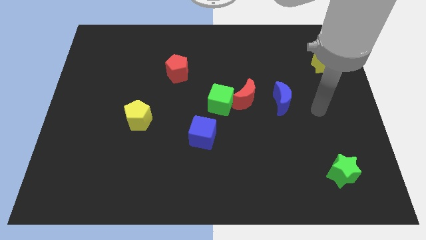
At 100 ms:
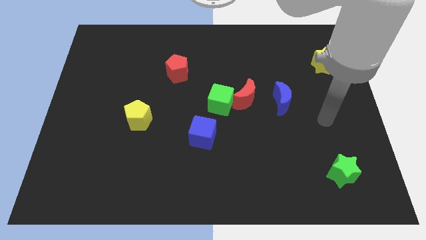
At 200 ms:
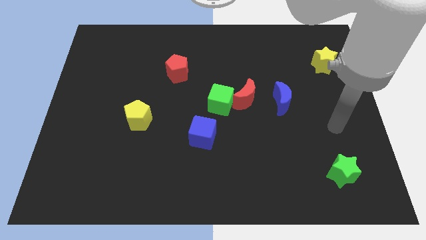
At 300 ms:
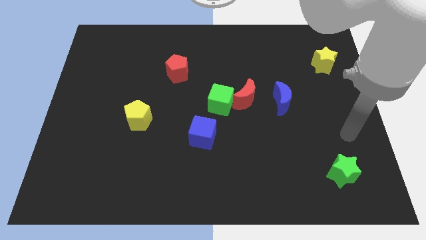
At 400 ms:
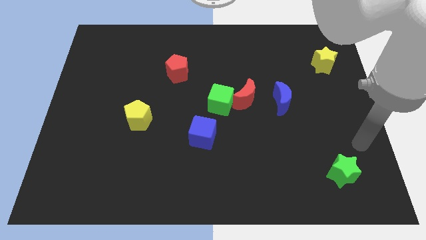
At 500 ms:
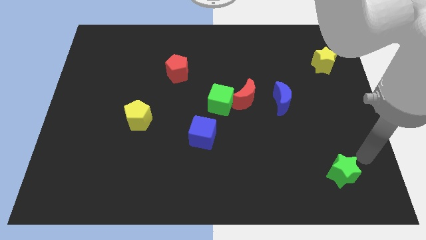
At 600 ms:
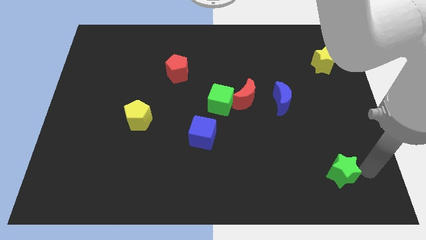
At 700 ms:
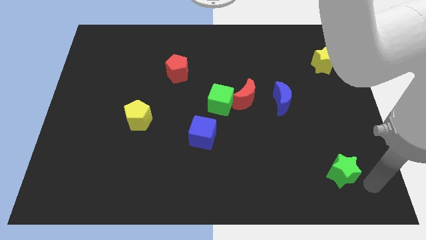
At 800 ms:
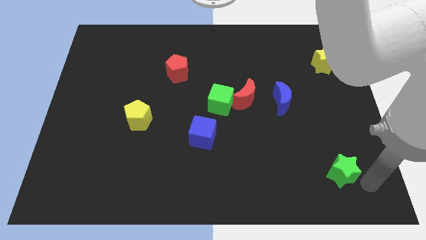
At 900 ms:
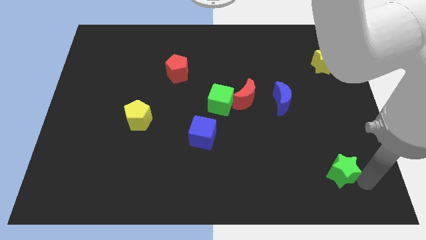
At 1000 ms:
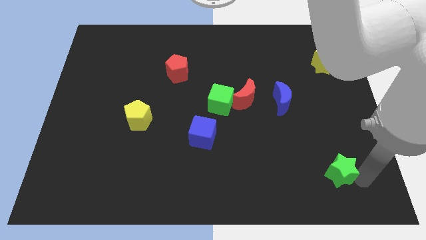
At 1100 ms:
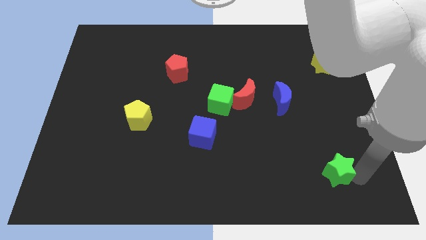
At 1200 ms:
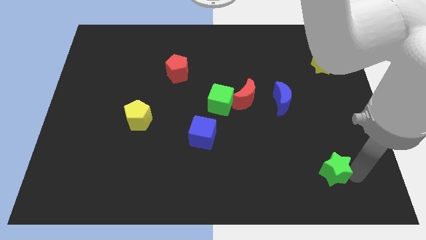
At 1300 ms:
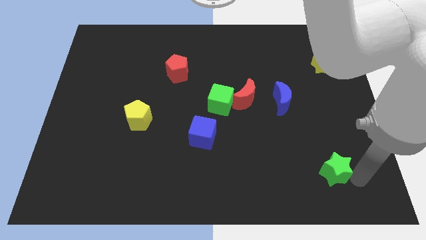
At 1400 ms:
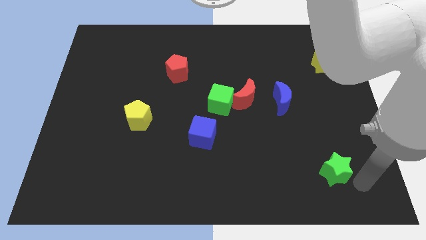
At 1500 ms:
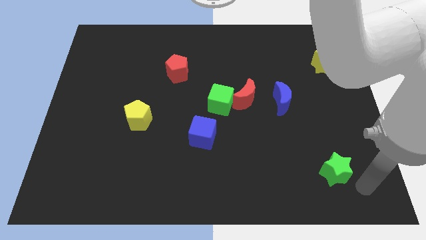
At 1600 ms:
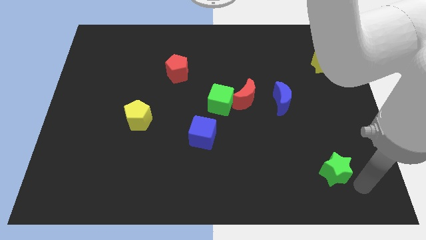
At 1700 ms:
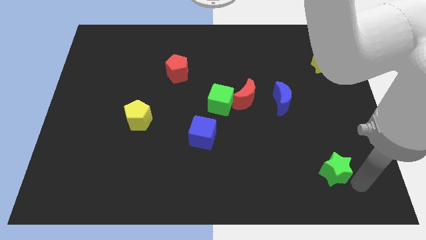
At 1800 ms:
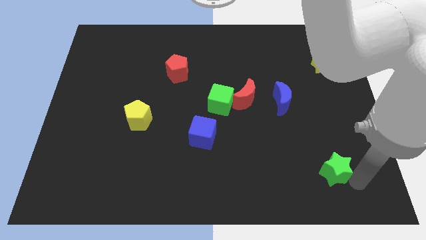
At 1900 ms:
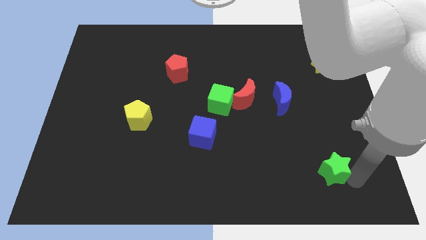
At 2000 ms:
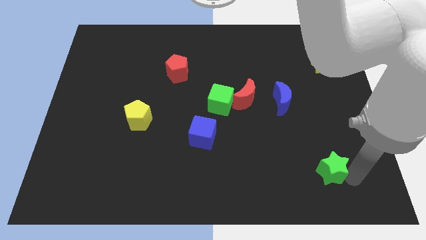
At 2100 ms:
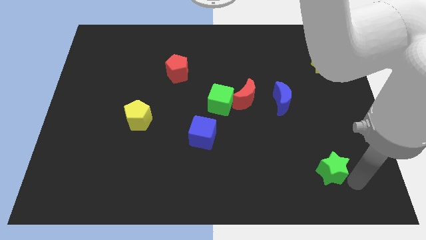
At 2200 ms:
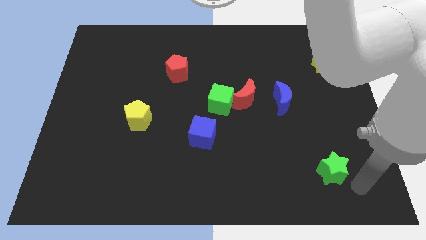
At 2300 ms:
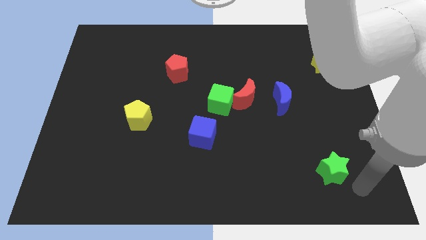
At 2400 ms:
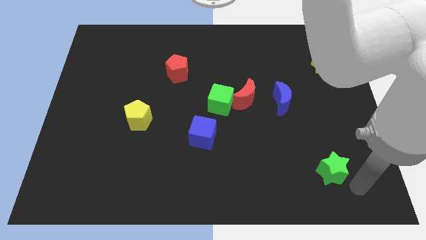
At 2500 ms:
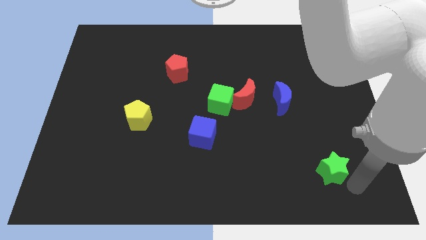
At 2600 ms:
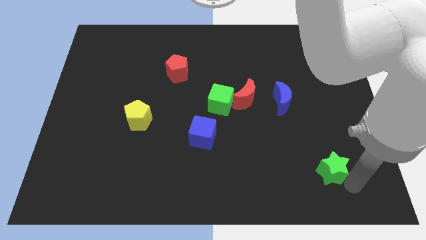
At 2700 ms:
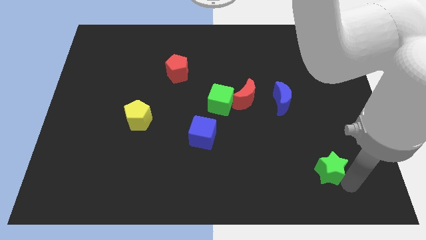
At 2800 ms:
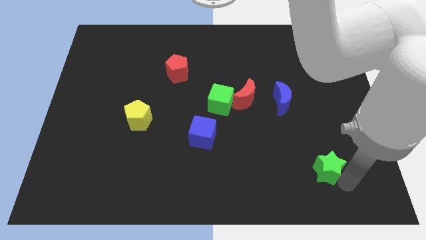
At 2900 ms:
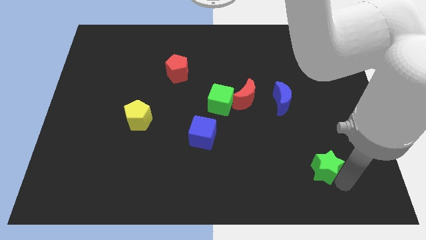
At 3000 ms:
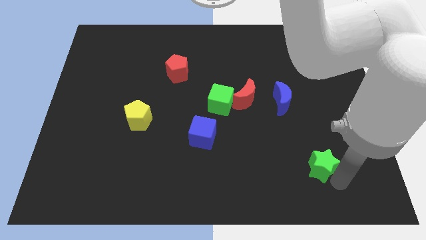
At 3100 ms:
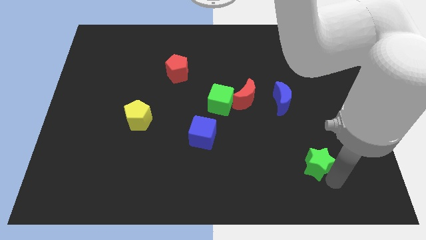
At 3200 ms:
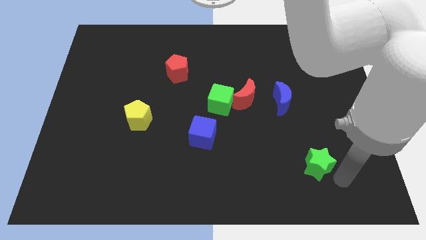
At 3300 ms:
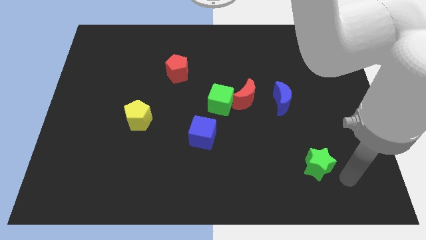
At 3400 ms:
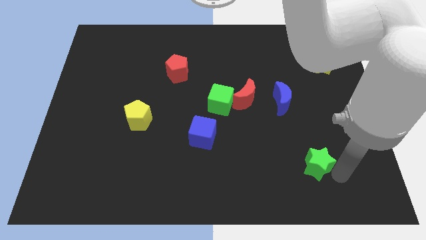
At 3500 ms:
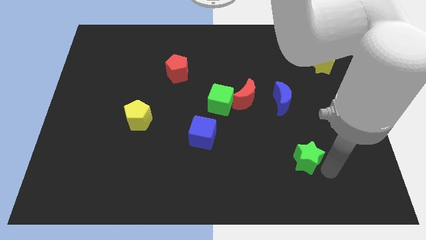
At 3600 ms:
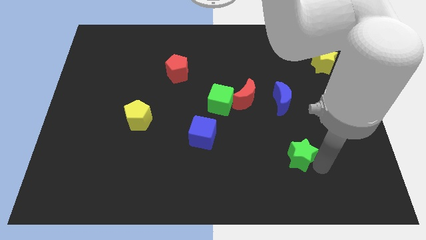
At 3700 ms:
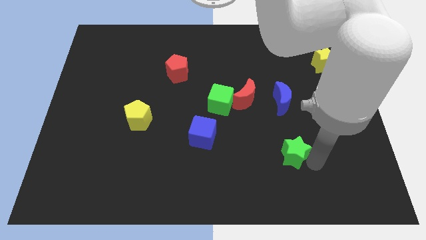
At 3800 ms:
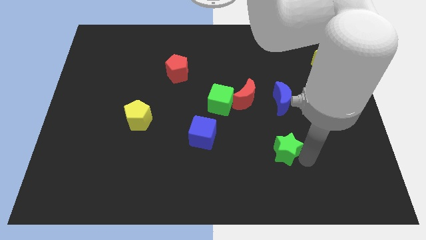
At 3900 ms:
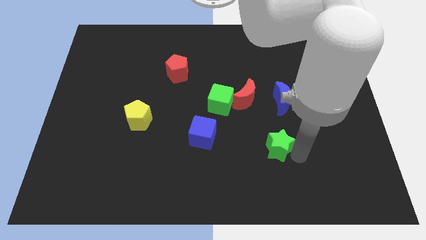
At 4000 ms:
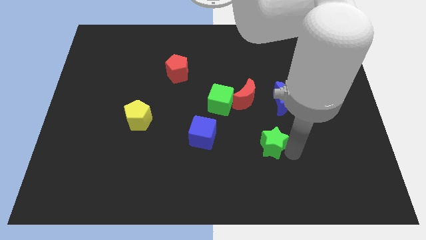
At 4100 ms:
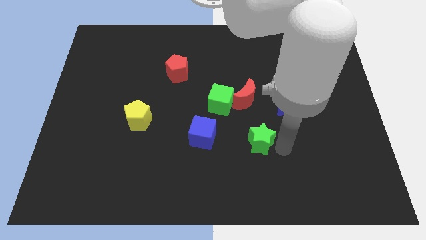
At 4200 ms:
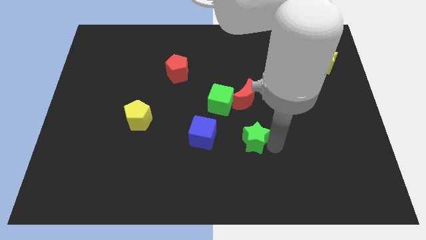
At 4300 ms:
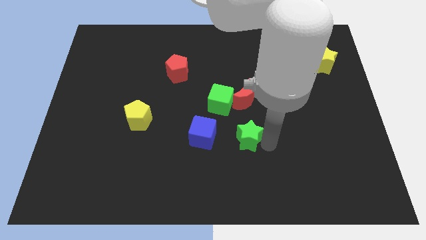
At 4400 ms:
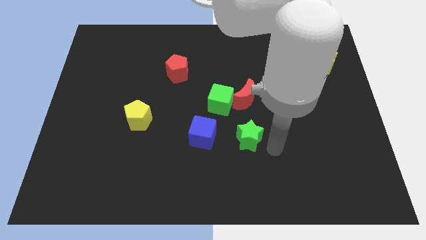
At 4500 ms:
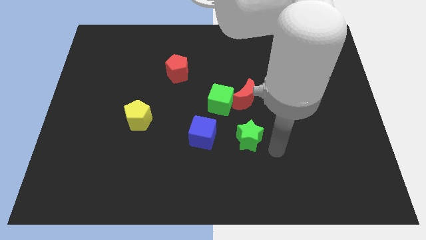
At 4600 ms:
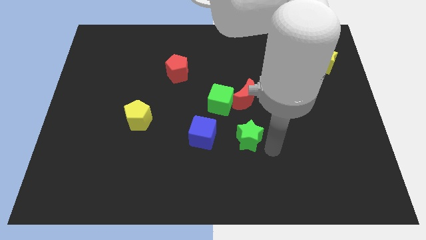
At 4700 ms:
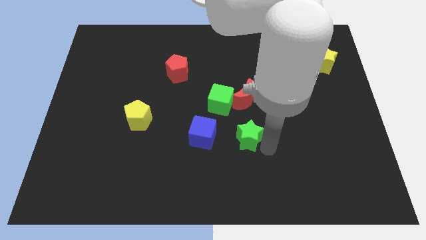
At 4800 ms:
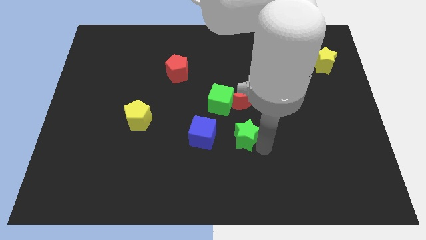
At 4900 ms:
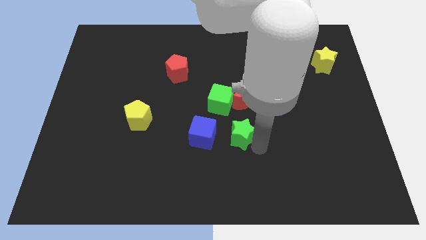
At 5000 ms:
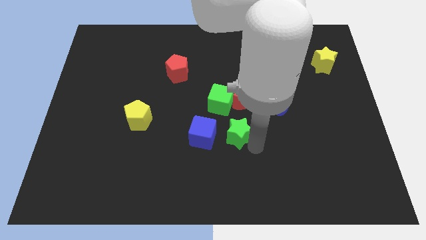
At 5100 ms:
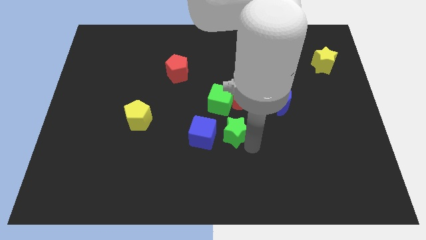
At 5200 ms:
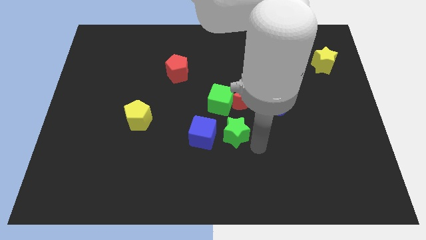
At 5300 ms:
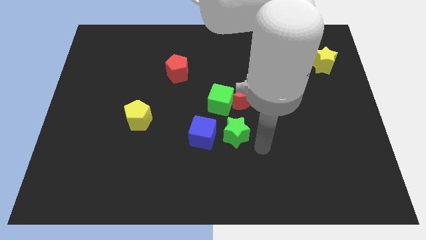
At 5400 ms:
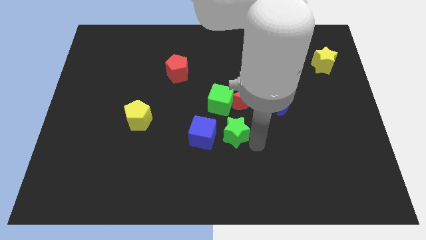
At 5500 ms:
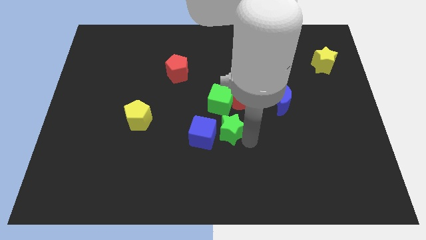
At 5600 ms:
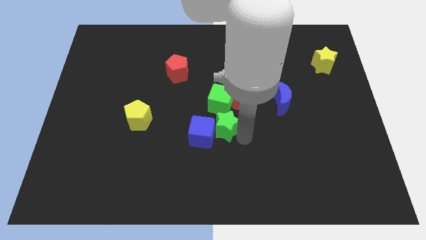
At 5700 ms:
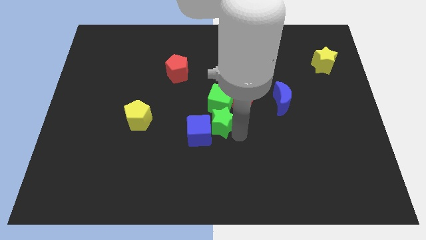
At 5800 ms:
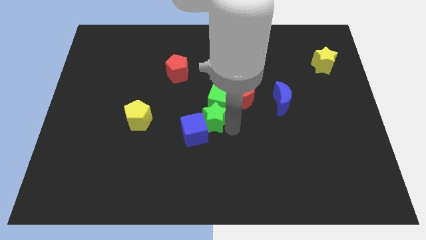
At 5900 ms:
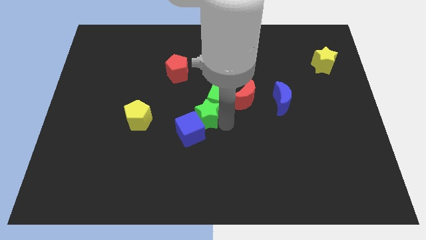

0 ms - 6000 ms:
put the green star to the right of the yellow pentagon

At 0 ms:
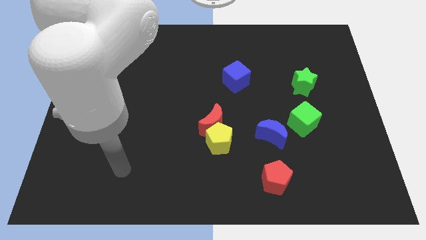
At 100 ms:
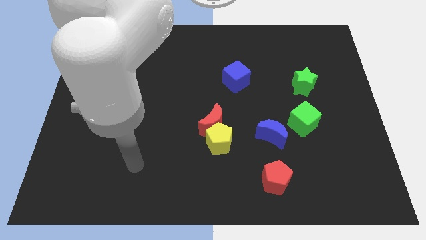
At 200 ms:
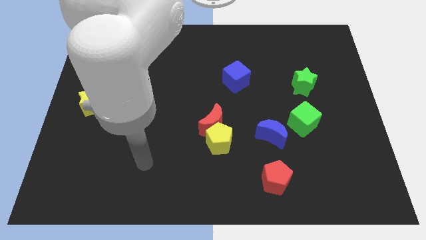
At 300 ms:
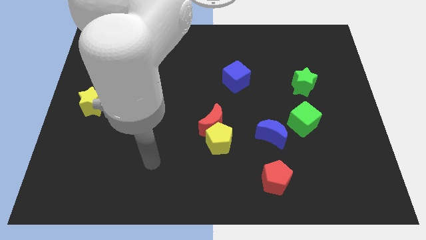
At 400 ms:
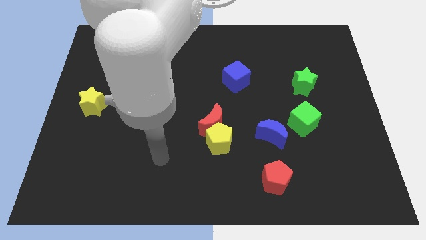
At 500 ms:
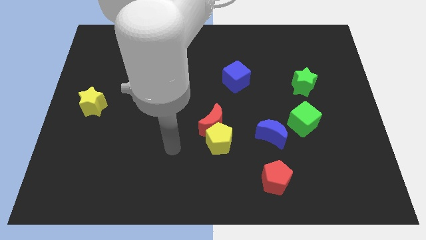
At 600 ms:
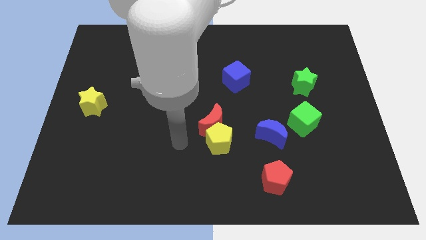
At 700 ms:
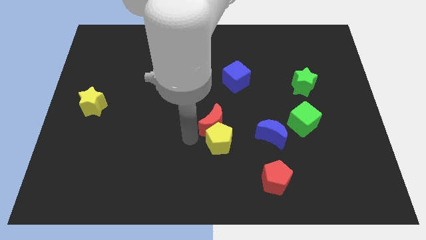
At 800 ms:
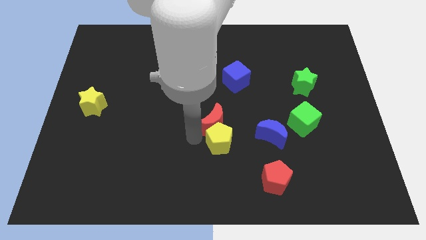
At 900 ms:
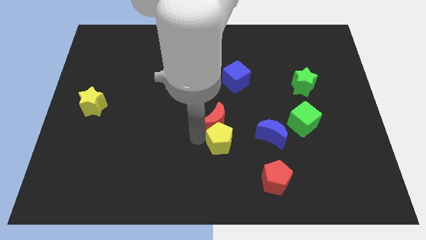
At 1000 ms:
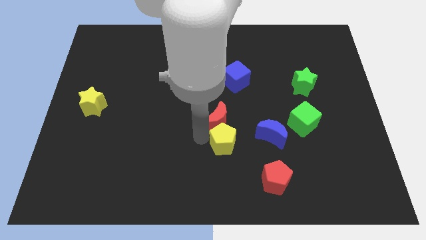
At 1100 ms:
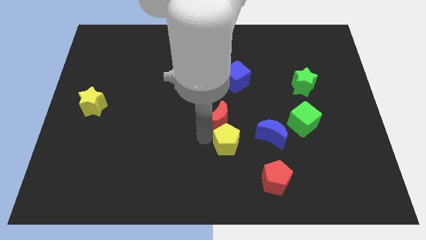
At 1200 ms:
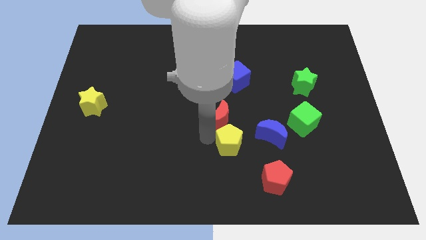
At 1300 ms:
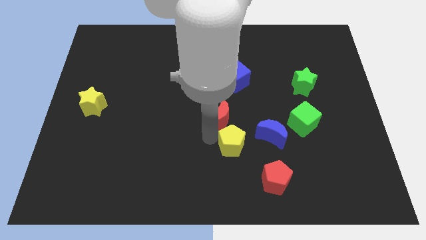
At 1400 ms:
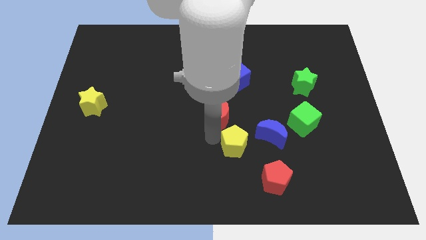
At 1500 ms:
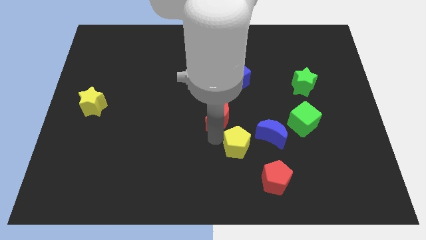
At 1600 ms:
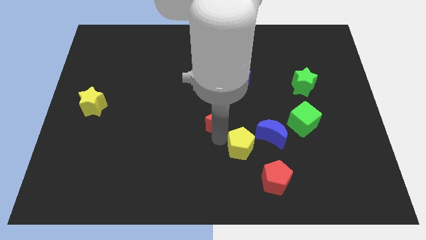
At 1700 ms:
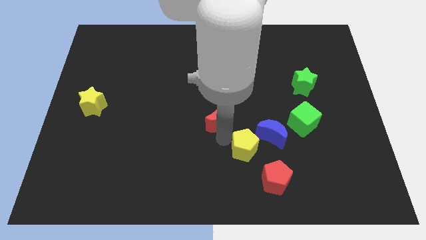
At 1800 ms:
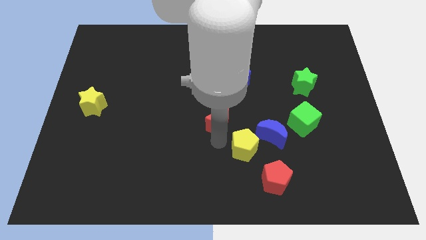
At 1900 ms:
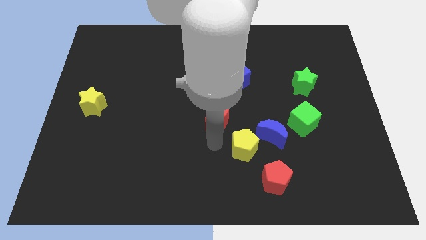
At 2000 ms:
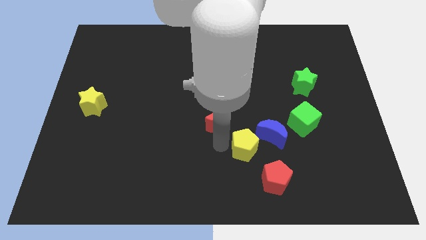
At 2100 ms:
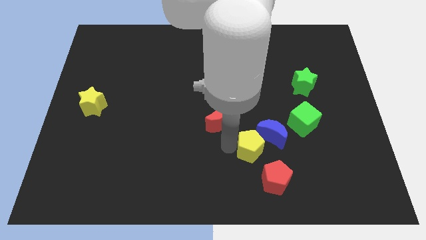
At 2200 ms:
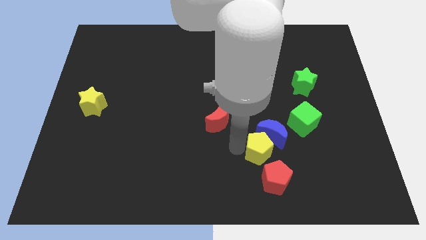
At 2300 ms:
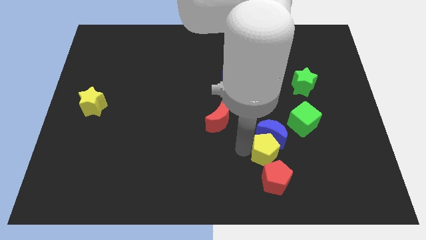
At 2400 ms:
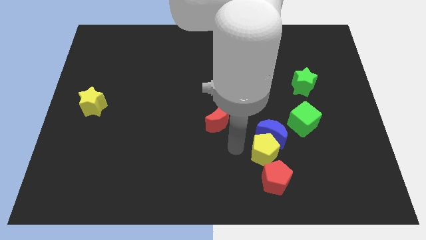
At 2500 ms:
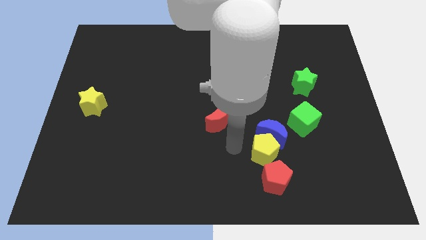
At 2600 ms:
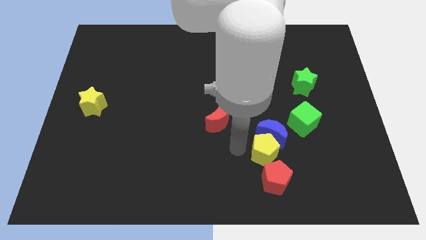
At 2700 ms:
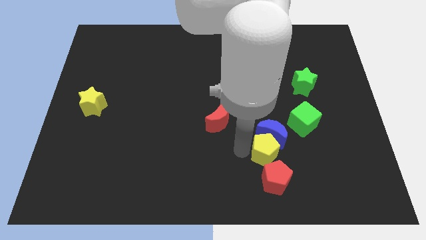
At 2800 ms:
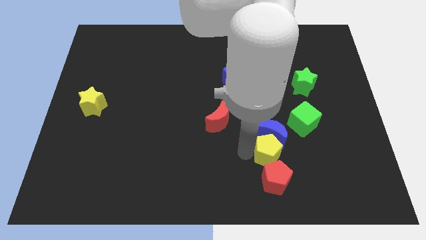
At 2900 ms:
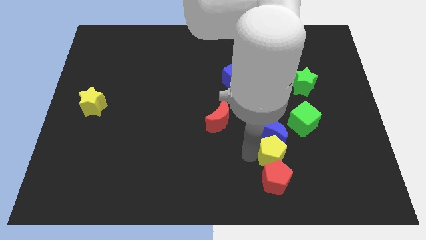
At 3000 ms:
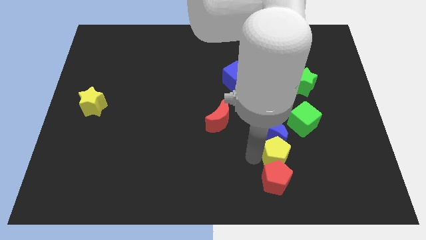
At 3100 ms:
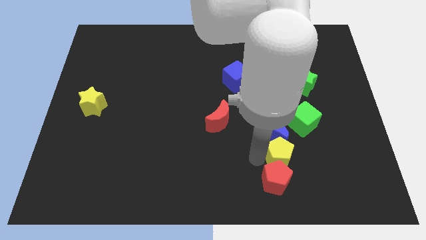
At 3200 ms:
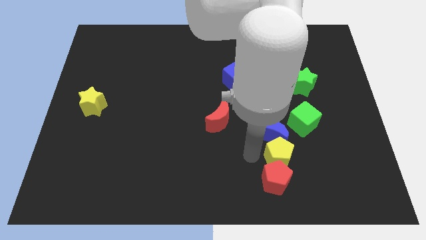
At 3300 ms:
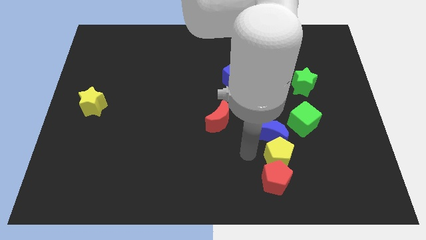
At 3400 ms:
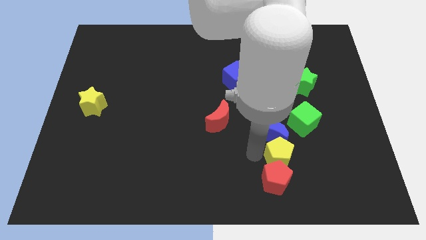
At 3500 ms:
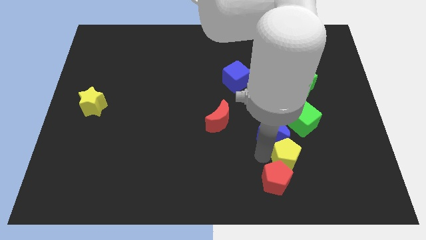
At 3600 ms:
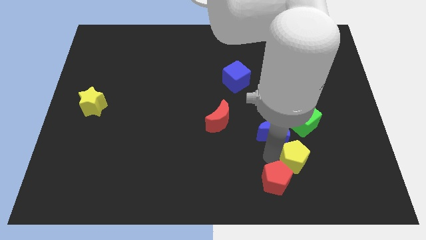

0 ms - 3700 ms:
move the yellow pentagon below the green cube
